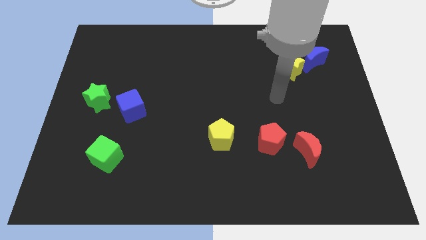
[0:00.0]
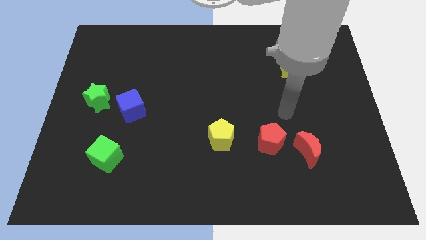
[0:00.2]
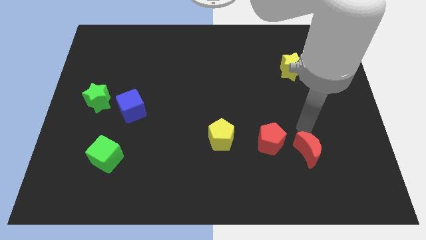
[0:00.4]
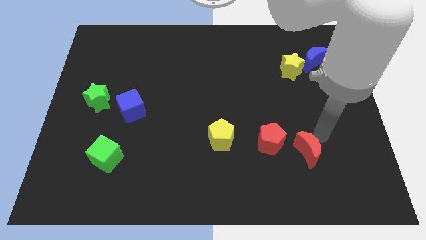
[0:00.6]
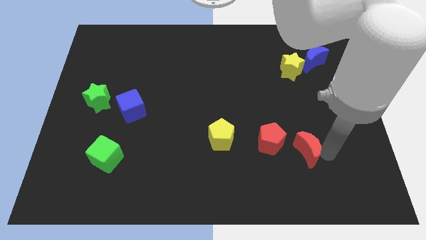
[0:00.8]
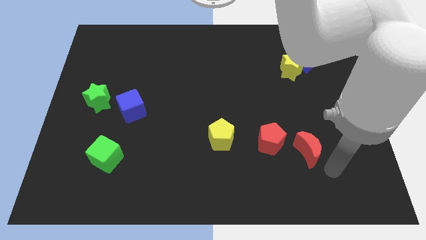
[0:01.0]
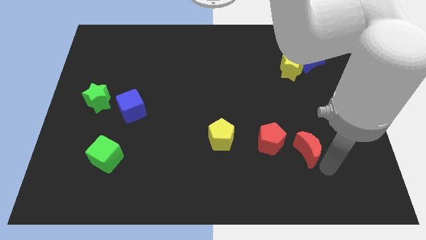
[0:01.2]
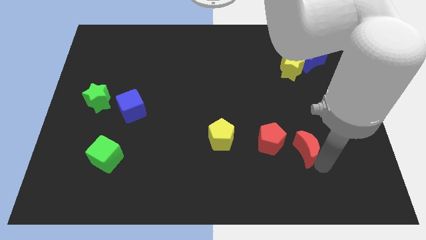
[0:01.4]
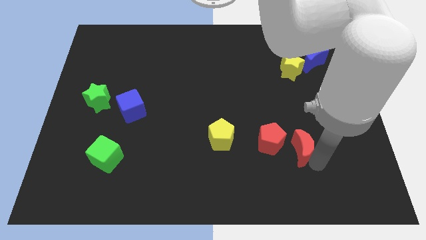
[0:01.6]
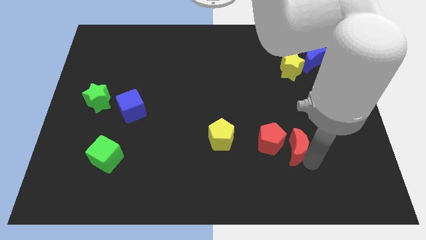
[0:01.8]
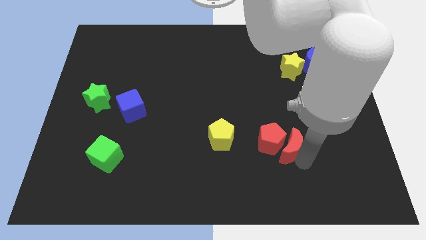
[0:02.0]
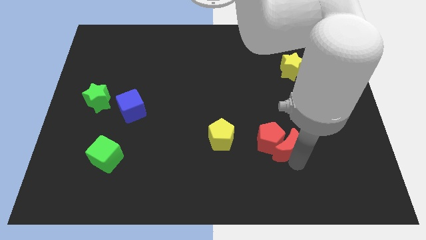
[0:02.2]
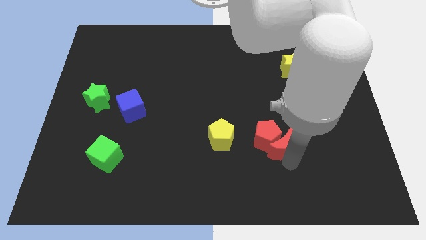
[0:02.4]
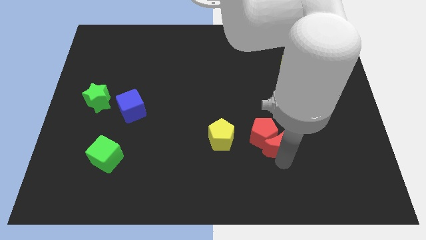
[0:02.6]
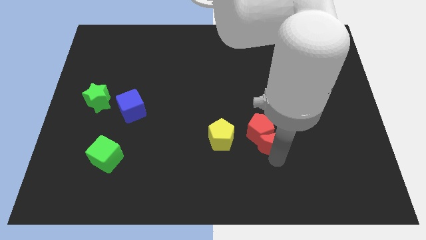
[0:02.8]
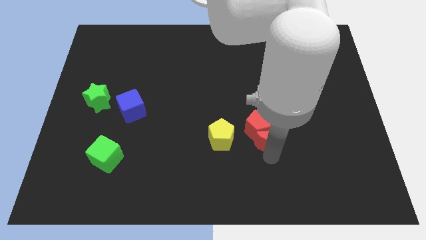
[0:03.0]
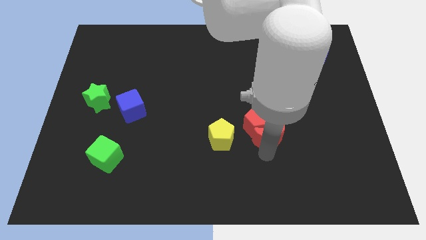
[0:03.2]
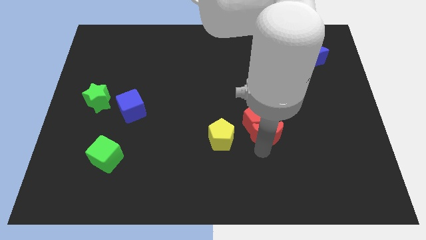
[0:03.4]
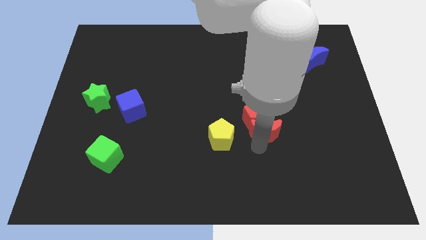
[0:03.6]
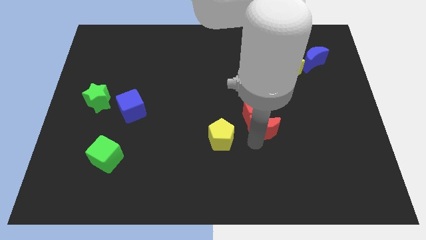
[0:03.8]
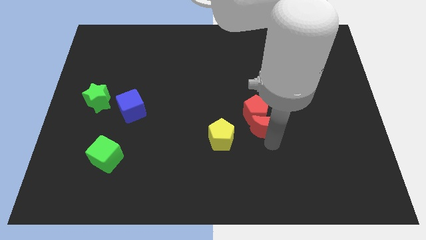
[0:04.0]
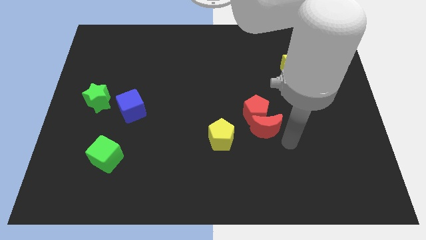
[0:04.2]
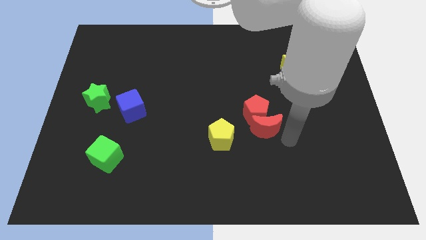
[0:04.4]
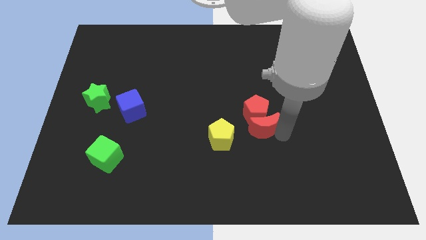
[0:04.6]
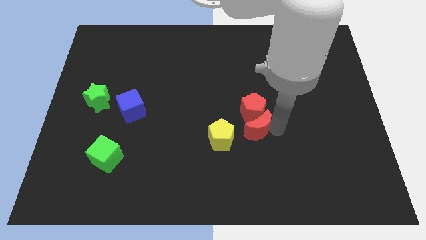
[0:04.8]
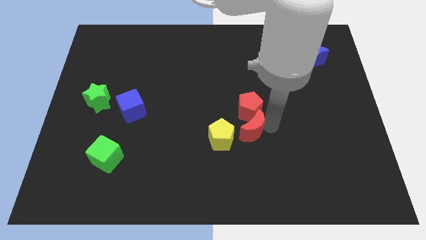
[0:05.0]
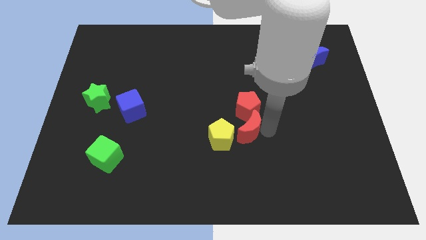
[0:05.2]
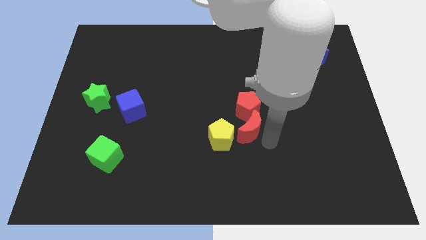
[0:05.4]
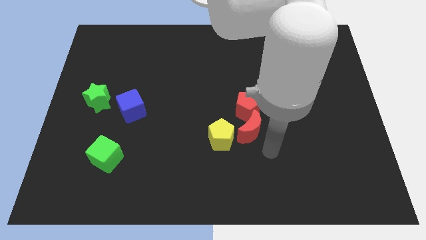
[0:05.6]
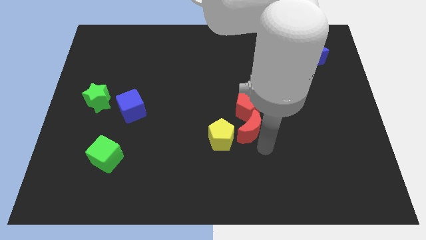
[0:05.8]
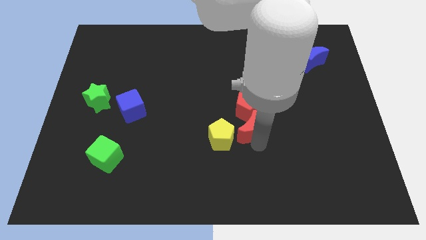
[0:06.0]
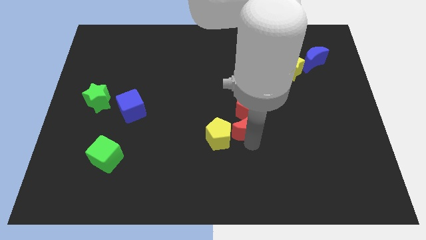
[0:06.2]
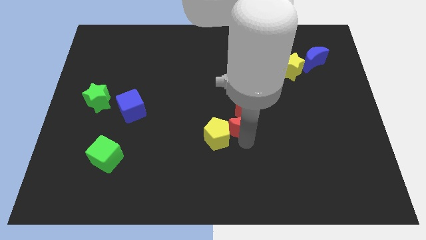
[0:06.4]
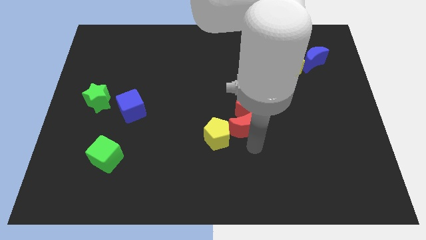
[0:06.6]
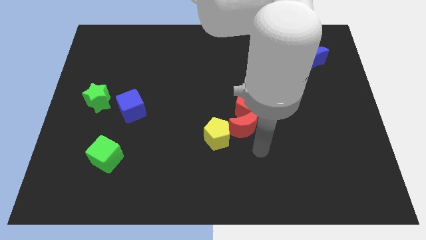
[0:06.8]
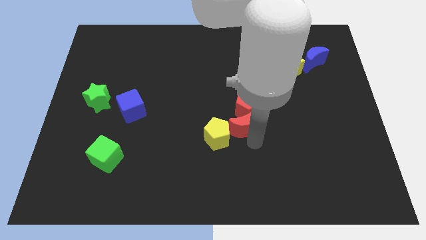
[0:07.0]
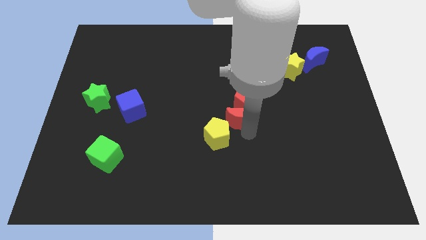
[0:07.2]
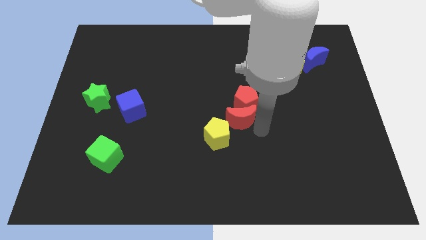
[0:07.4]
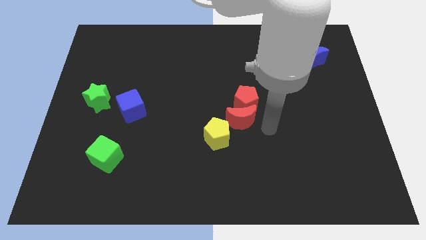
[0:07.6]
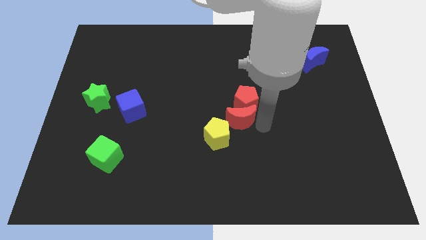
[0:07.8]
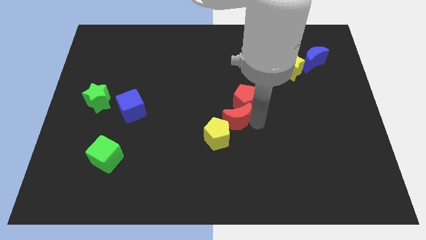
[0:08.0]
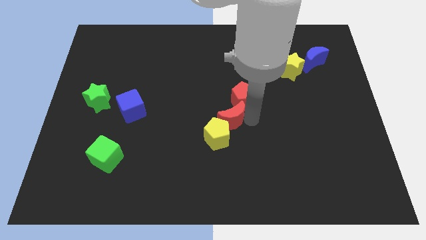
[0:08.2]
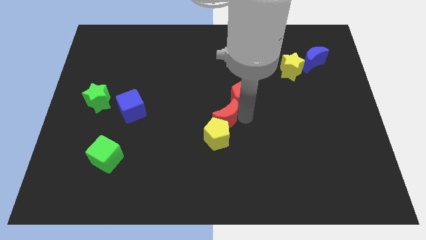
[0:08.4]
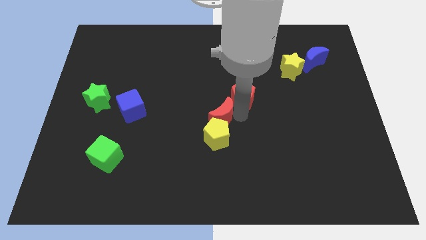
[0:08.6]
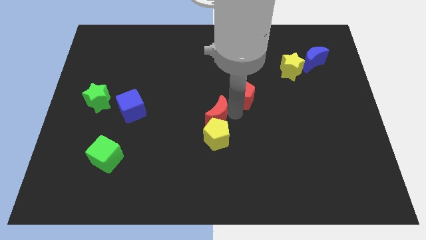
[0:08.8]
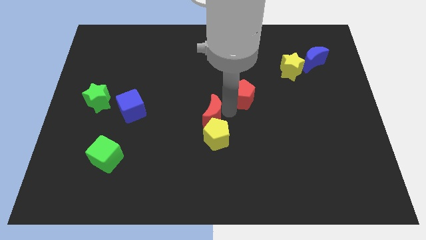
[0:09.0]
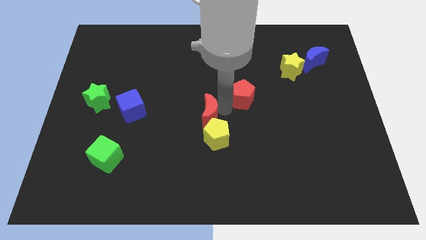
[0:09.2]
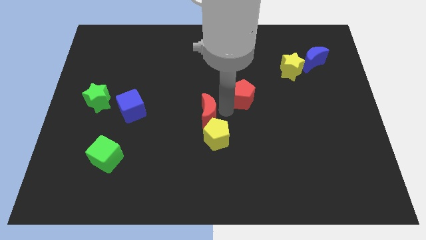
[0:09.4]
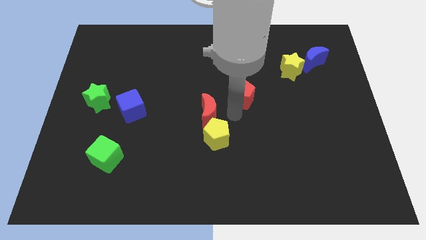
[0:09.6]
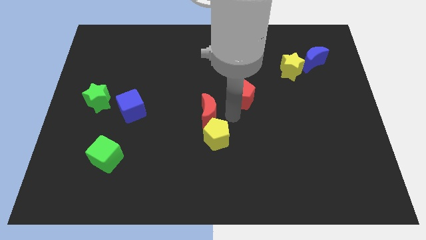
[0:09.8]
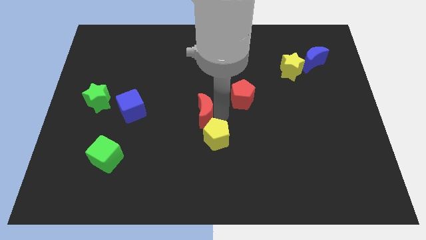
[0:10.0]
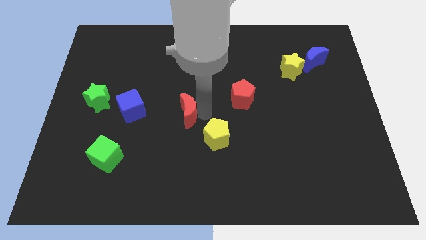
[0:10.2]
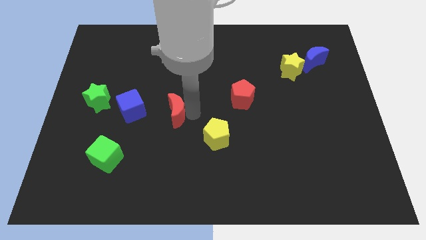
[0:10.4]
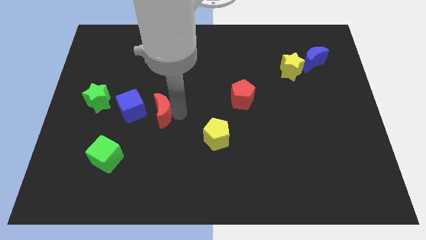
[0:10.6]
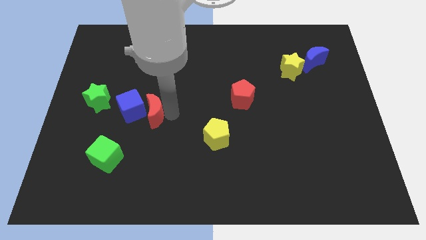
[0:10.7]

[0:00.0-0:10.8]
put the red moon close to the blue cube

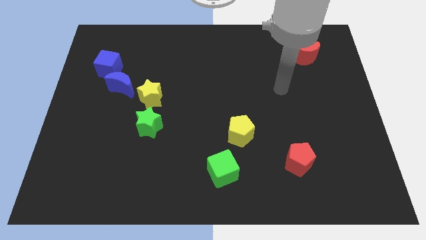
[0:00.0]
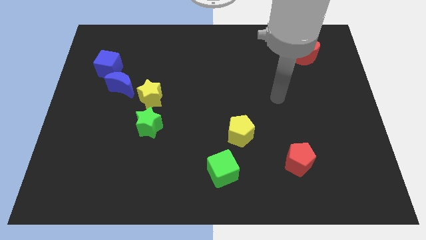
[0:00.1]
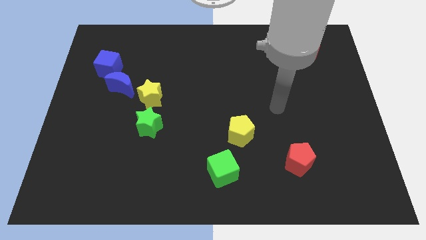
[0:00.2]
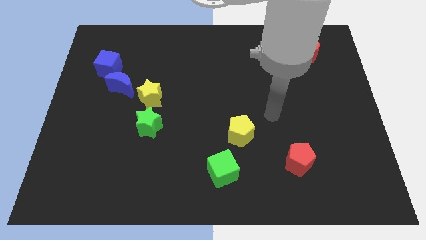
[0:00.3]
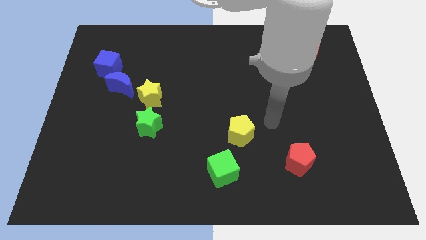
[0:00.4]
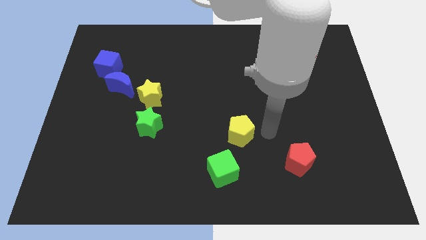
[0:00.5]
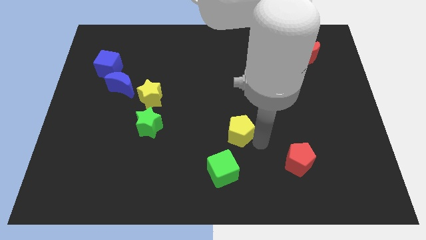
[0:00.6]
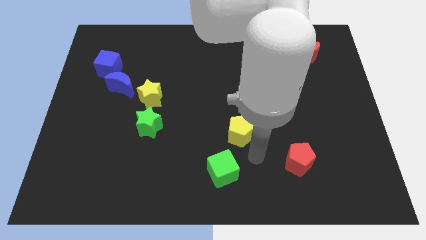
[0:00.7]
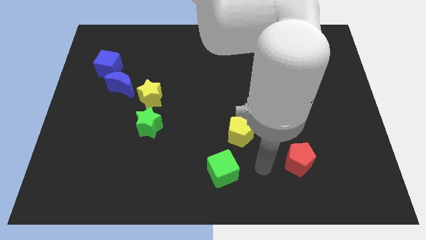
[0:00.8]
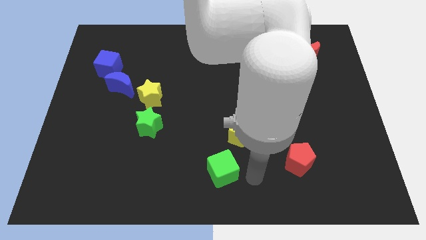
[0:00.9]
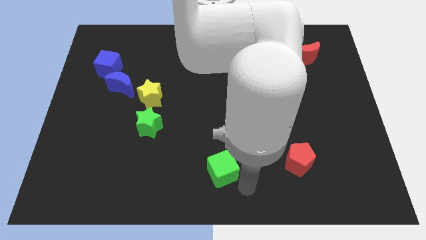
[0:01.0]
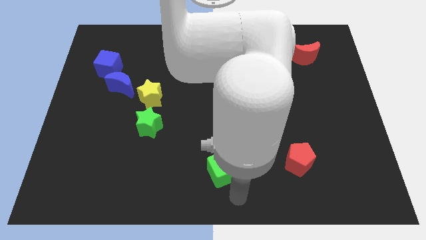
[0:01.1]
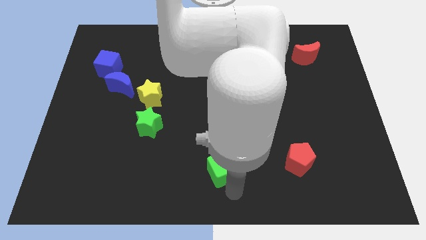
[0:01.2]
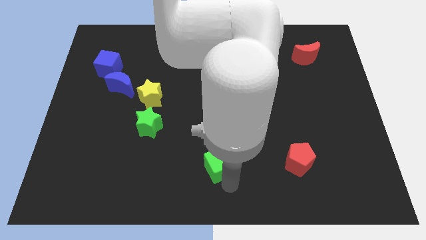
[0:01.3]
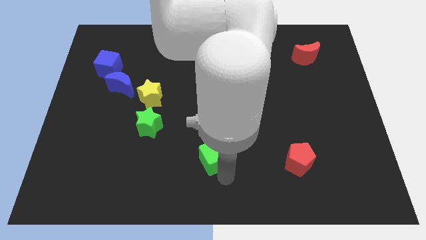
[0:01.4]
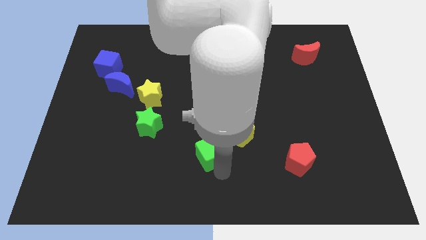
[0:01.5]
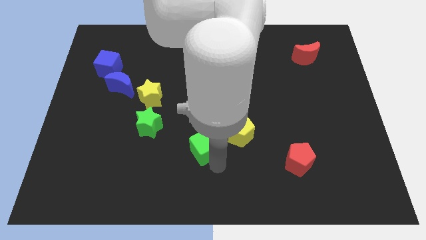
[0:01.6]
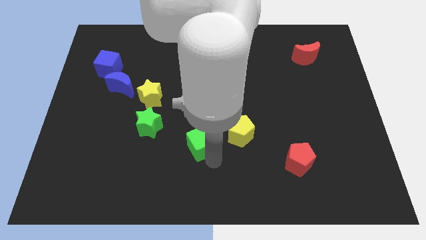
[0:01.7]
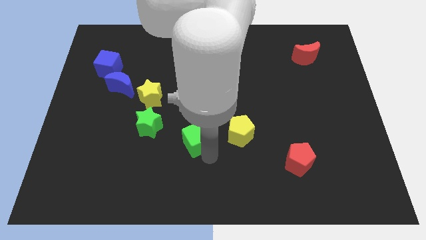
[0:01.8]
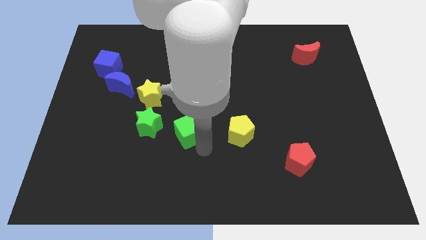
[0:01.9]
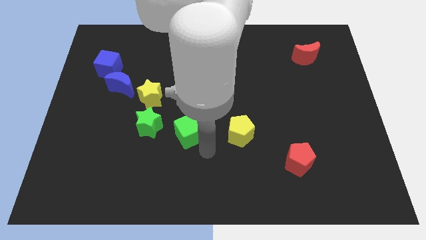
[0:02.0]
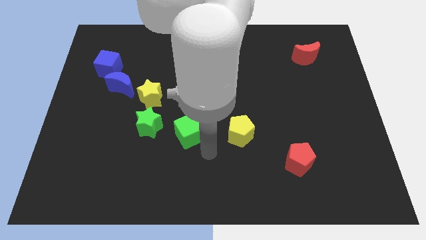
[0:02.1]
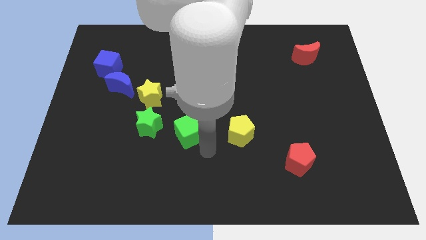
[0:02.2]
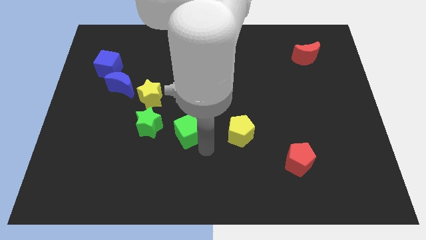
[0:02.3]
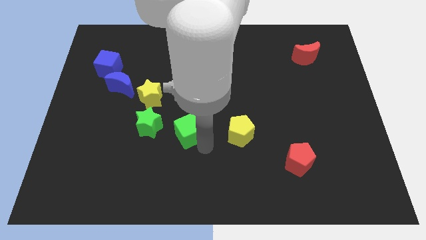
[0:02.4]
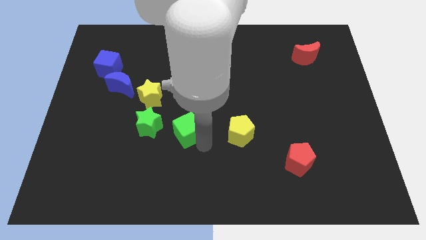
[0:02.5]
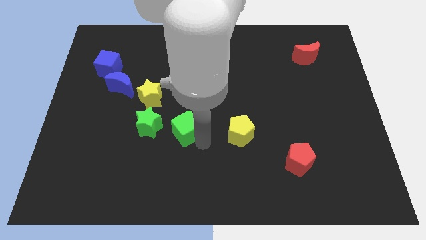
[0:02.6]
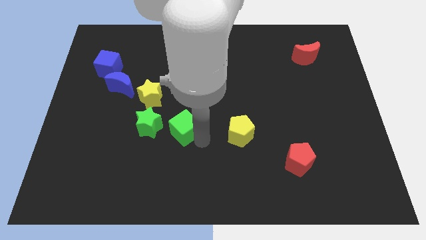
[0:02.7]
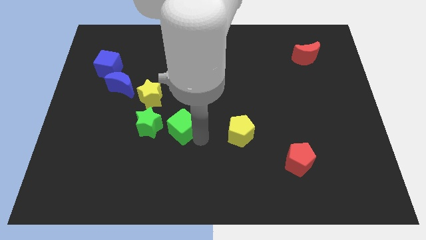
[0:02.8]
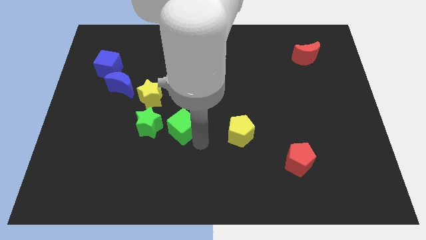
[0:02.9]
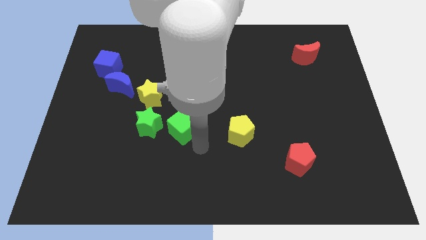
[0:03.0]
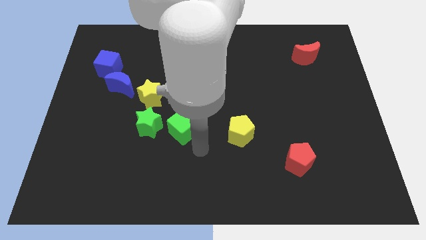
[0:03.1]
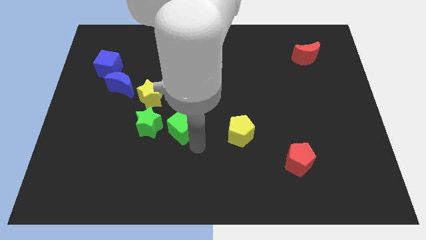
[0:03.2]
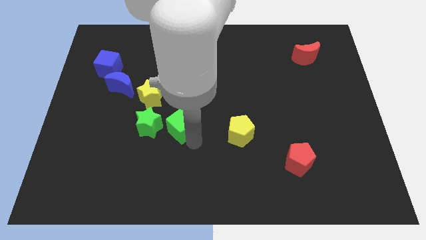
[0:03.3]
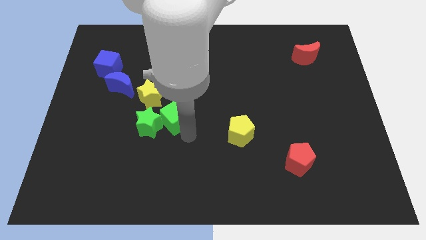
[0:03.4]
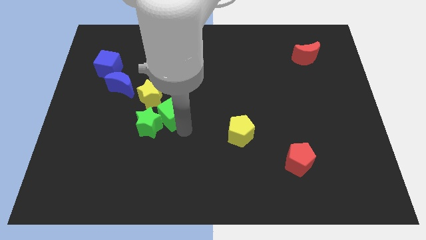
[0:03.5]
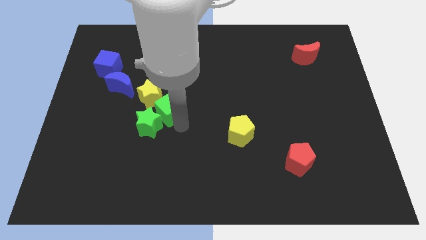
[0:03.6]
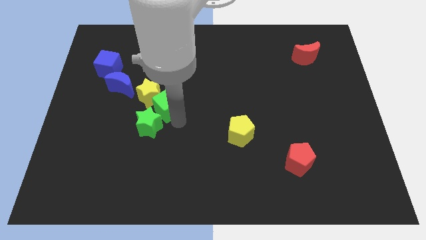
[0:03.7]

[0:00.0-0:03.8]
push the green cube next to the yellow star
